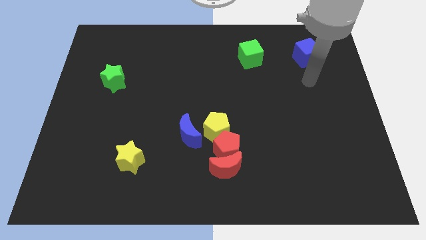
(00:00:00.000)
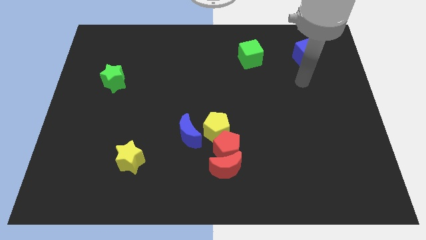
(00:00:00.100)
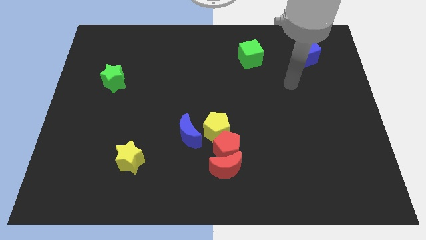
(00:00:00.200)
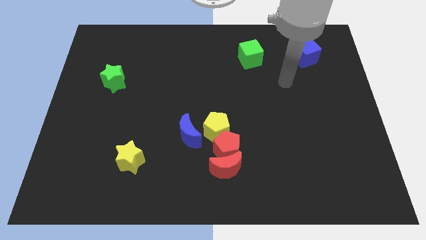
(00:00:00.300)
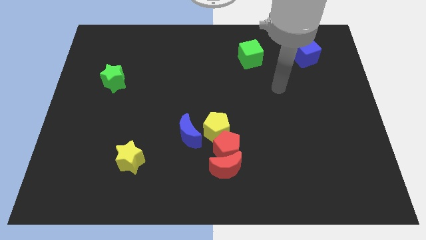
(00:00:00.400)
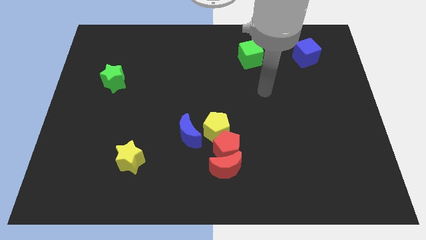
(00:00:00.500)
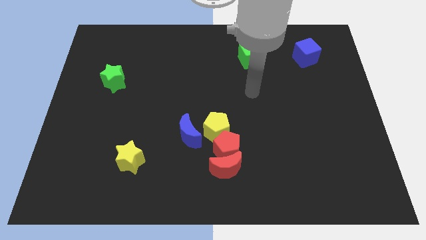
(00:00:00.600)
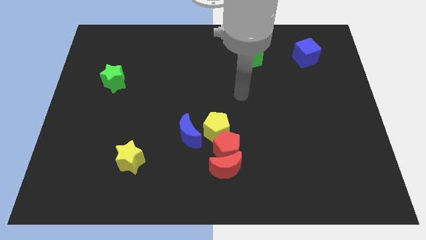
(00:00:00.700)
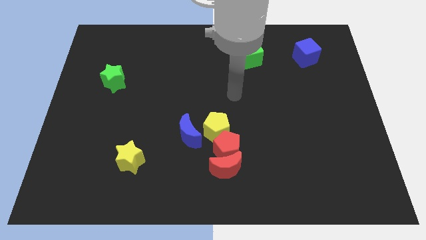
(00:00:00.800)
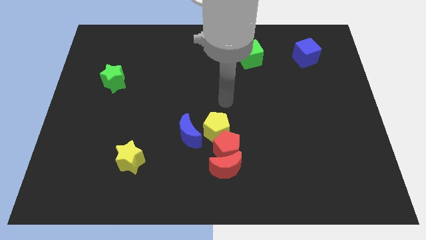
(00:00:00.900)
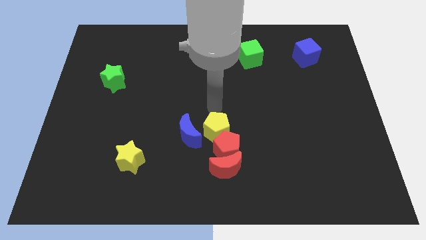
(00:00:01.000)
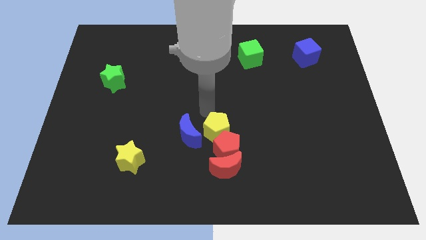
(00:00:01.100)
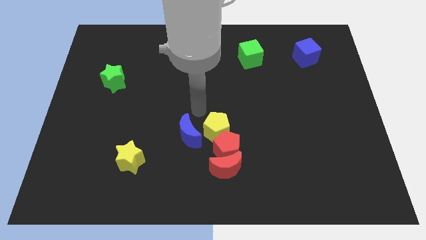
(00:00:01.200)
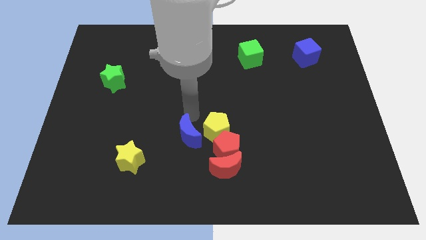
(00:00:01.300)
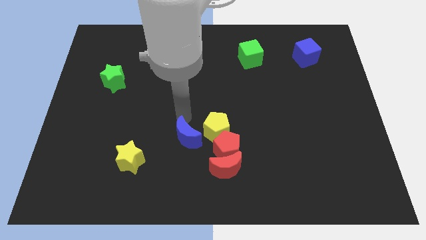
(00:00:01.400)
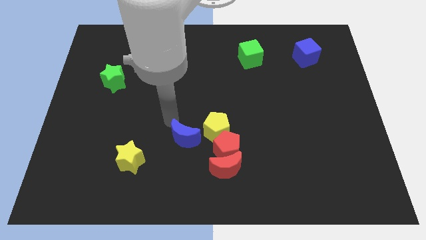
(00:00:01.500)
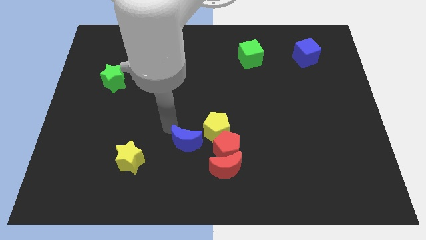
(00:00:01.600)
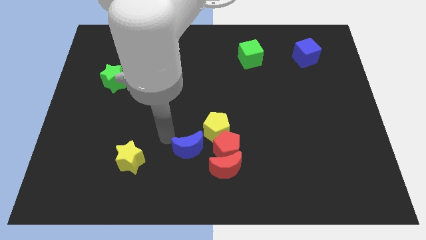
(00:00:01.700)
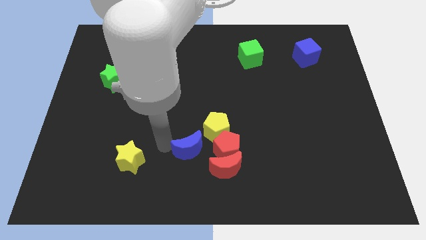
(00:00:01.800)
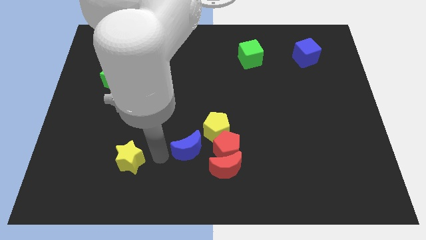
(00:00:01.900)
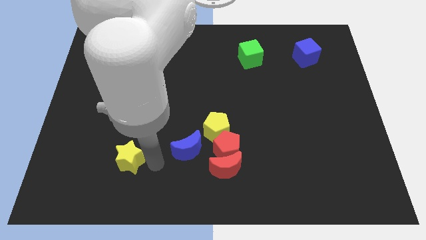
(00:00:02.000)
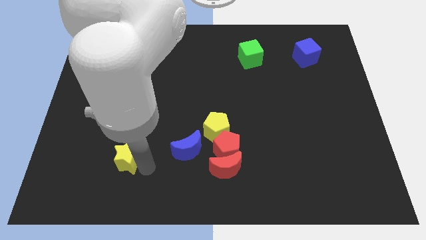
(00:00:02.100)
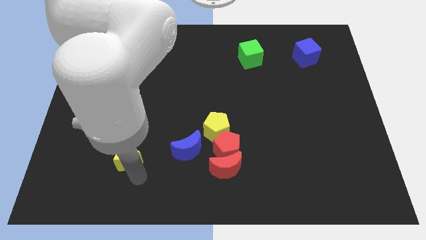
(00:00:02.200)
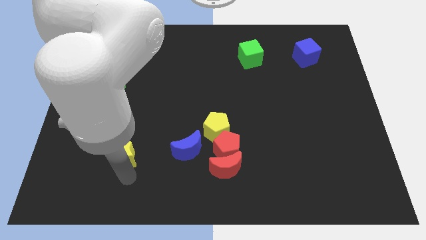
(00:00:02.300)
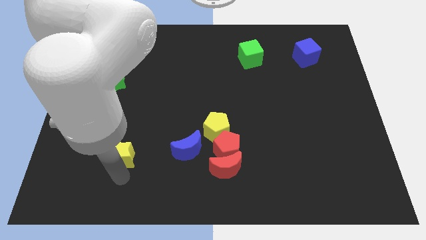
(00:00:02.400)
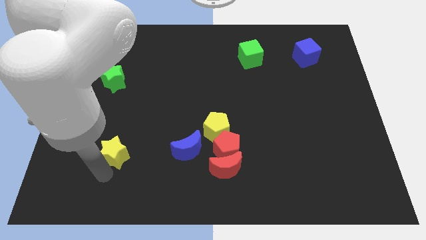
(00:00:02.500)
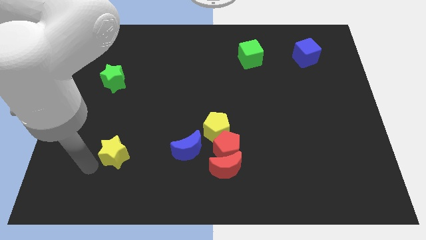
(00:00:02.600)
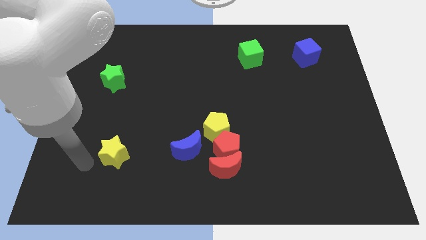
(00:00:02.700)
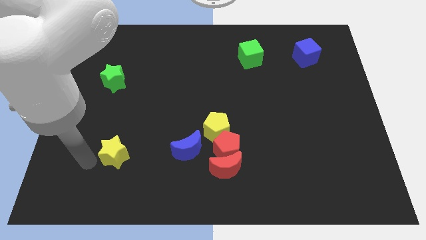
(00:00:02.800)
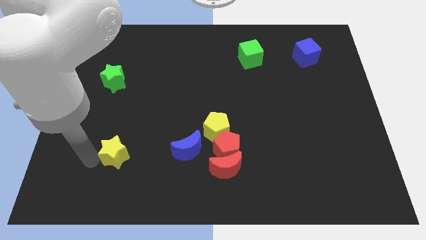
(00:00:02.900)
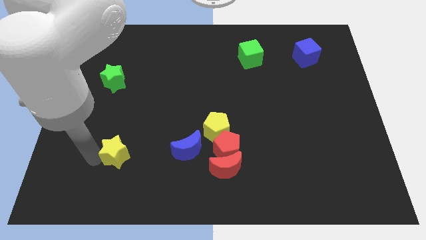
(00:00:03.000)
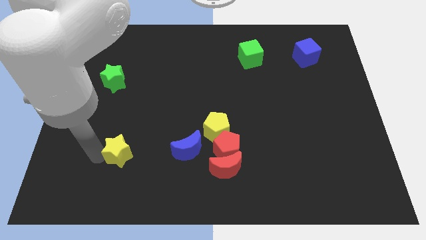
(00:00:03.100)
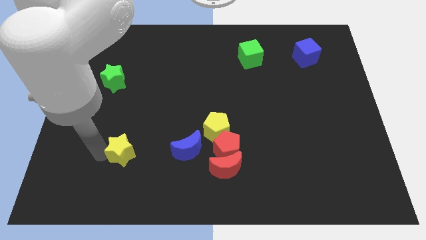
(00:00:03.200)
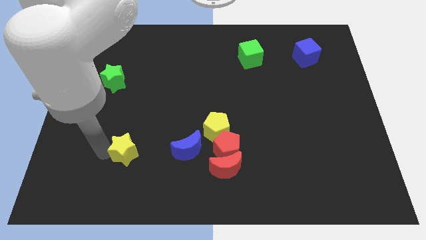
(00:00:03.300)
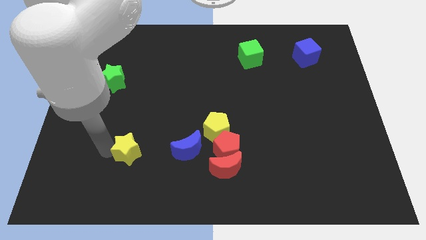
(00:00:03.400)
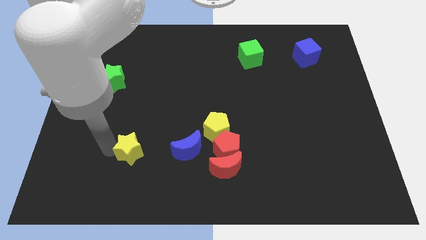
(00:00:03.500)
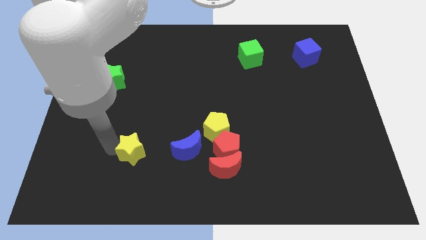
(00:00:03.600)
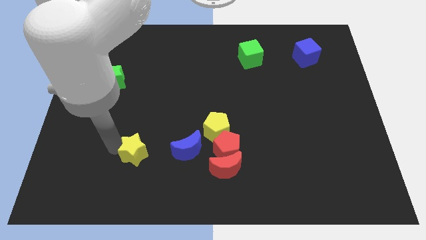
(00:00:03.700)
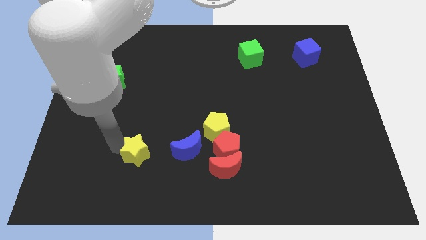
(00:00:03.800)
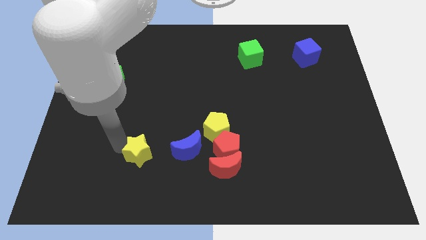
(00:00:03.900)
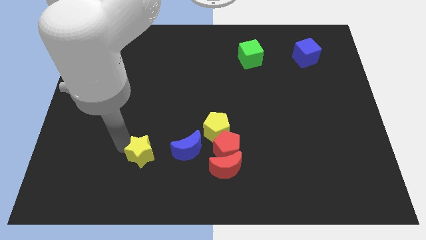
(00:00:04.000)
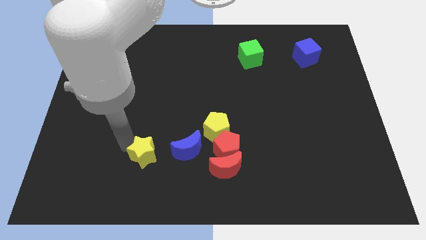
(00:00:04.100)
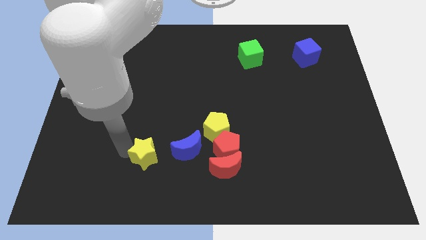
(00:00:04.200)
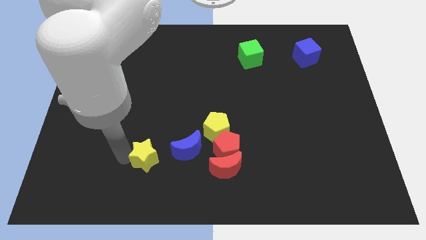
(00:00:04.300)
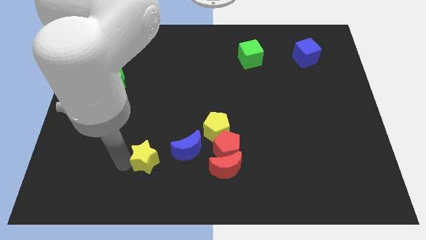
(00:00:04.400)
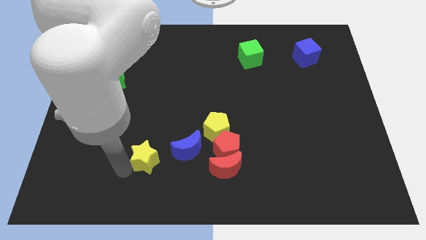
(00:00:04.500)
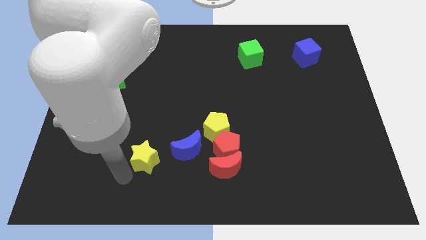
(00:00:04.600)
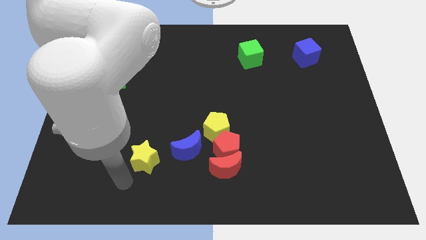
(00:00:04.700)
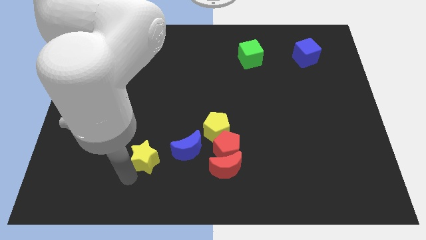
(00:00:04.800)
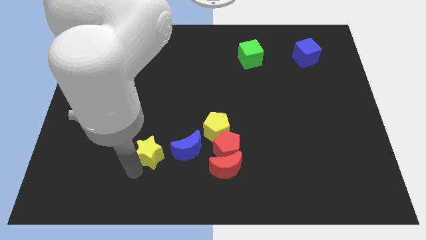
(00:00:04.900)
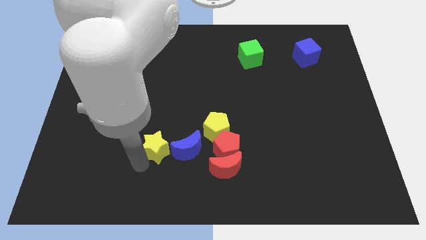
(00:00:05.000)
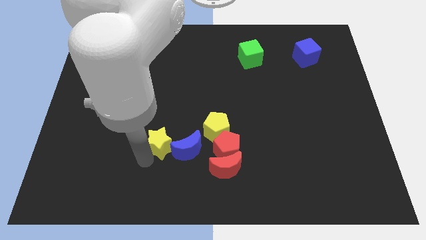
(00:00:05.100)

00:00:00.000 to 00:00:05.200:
push the yellow star up and then right a bit

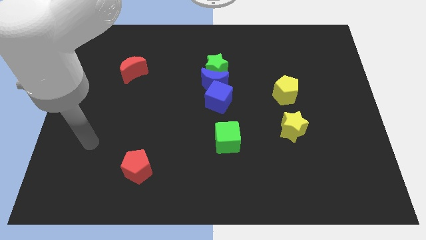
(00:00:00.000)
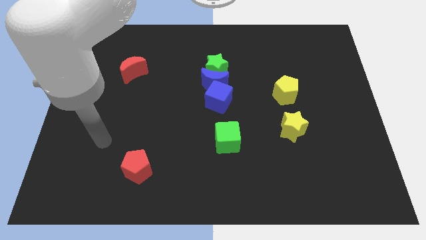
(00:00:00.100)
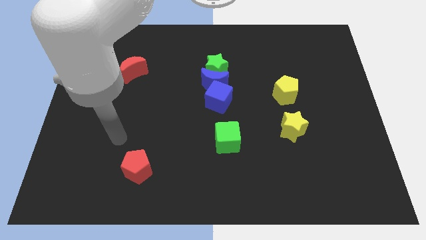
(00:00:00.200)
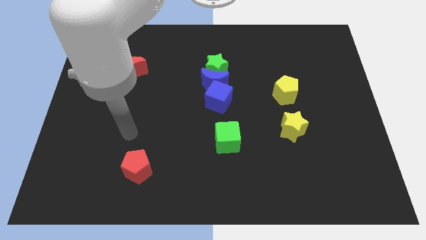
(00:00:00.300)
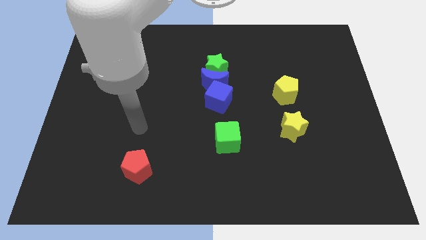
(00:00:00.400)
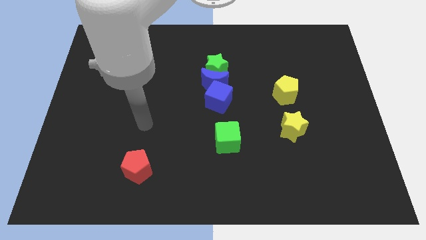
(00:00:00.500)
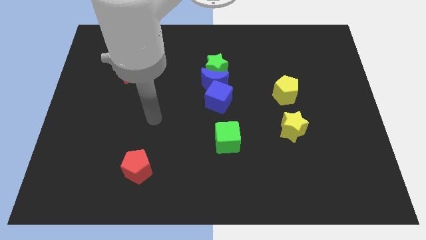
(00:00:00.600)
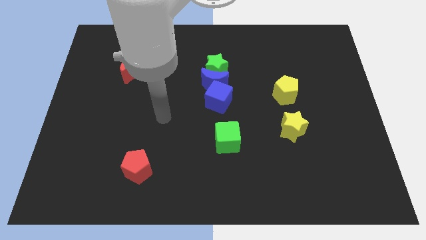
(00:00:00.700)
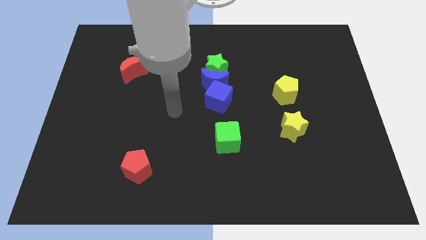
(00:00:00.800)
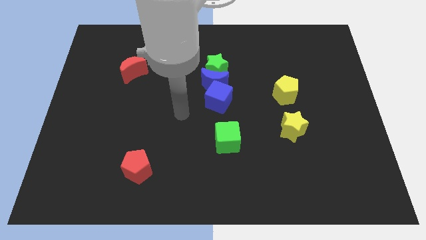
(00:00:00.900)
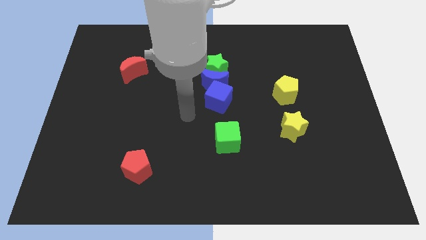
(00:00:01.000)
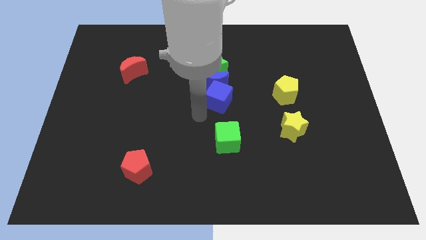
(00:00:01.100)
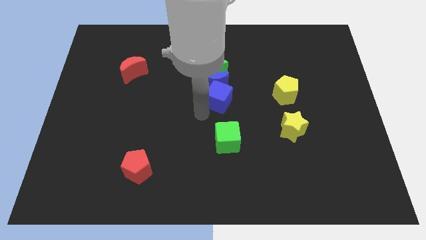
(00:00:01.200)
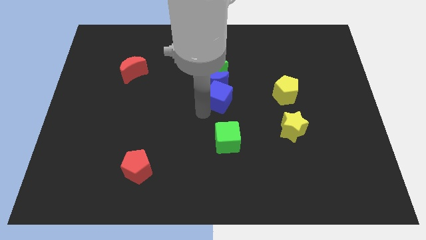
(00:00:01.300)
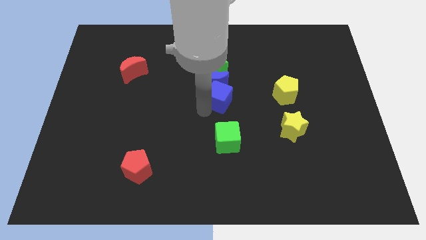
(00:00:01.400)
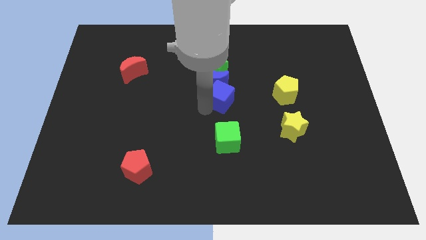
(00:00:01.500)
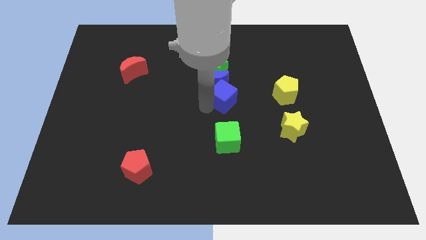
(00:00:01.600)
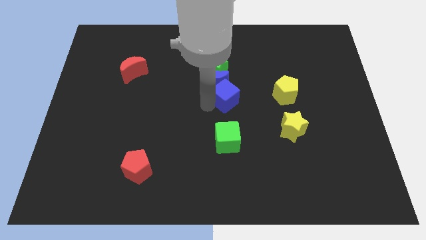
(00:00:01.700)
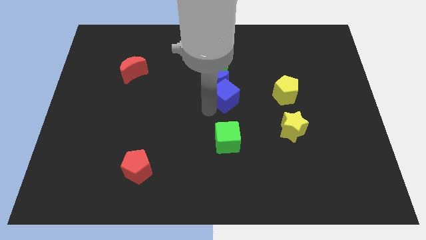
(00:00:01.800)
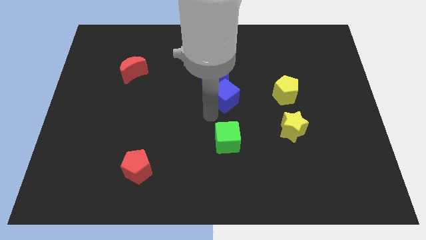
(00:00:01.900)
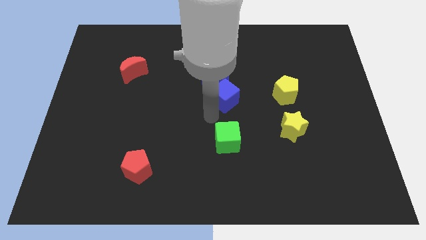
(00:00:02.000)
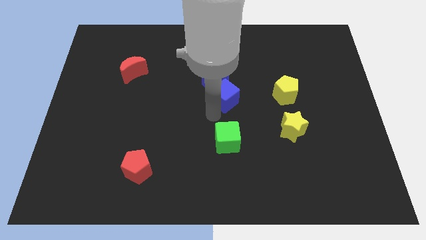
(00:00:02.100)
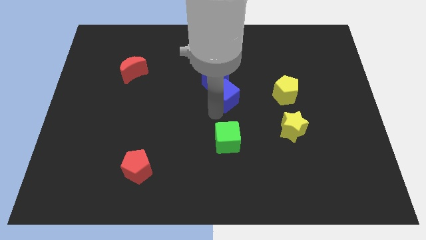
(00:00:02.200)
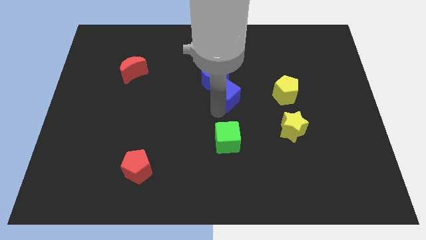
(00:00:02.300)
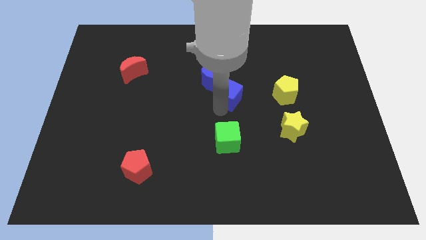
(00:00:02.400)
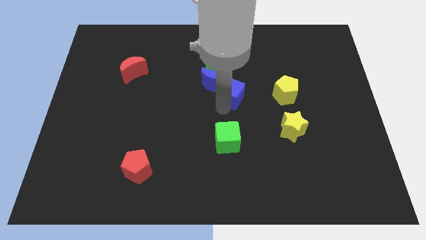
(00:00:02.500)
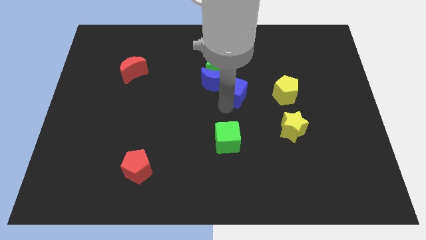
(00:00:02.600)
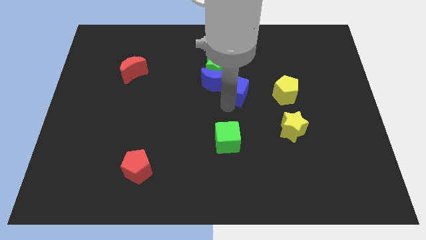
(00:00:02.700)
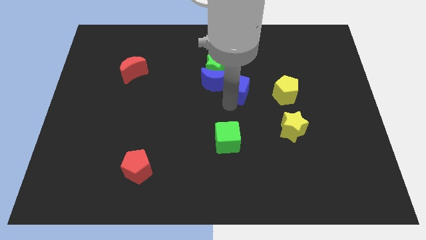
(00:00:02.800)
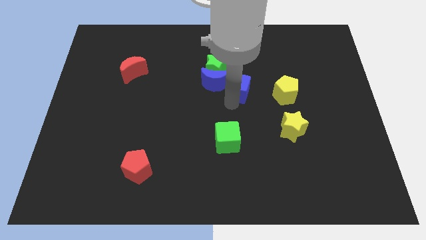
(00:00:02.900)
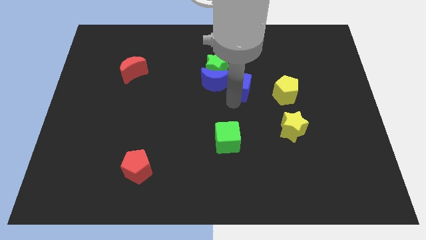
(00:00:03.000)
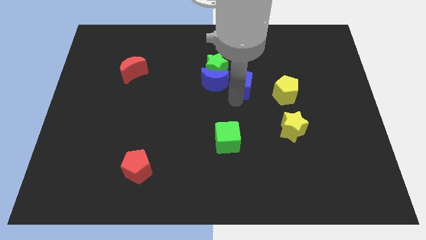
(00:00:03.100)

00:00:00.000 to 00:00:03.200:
push the blue cube upwards and right diagonally a little
